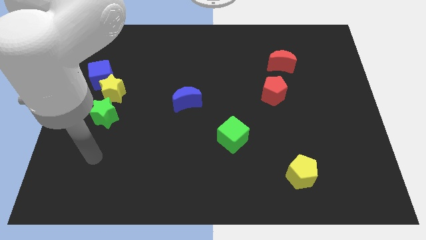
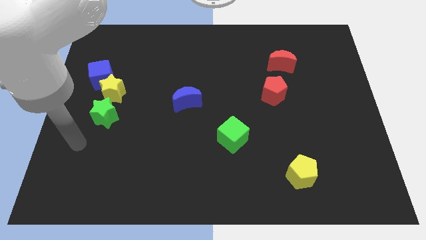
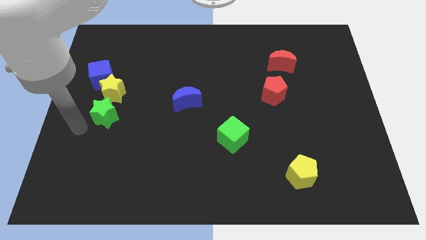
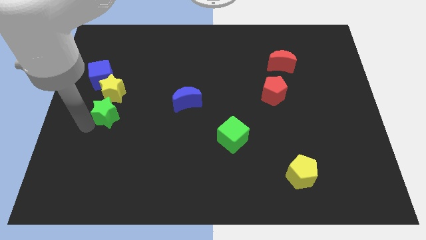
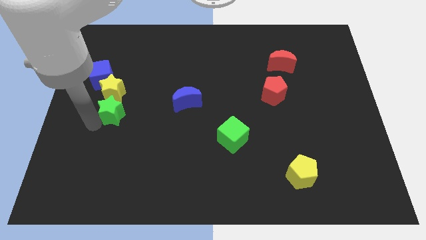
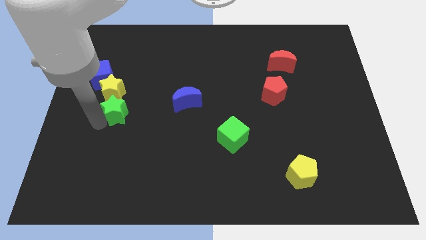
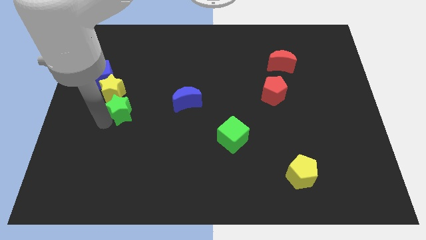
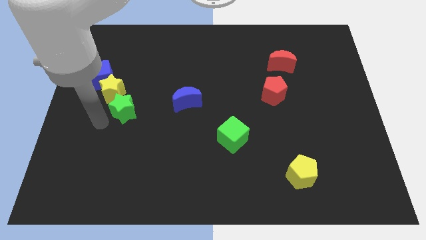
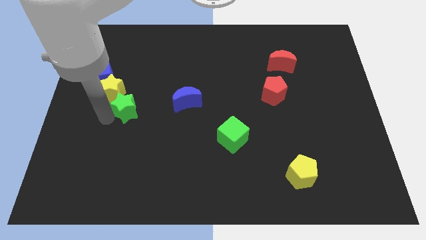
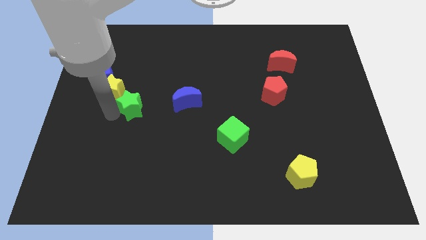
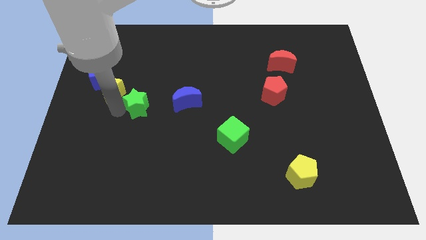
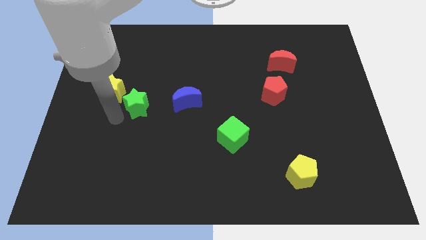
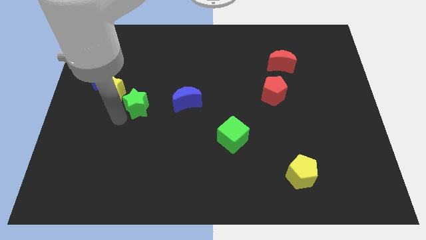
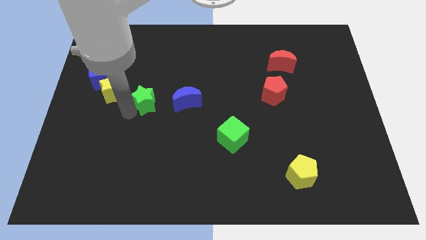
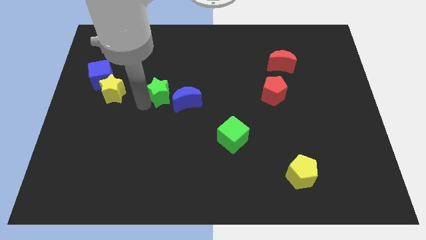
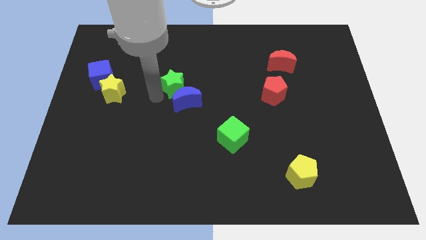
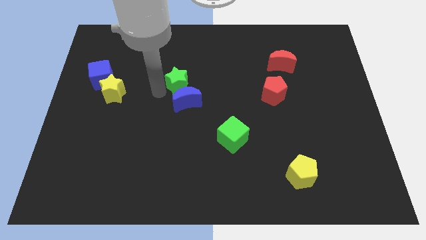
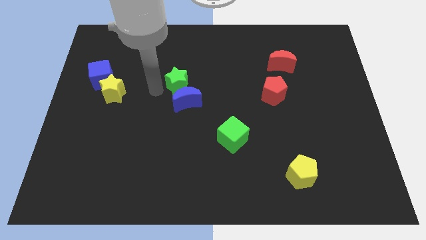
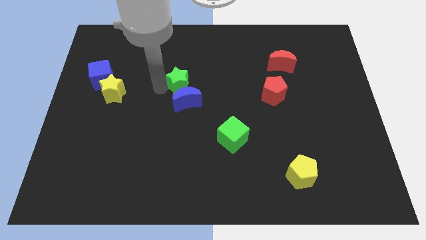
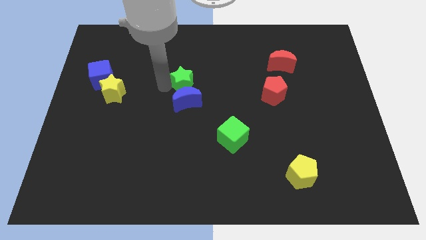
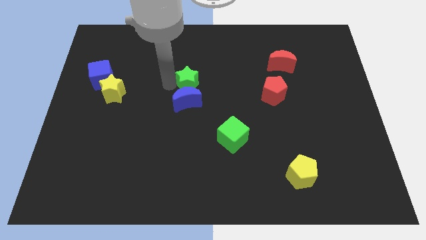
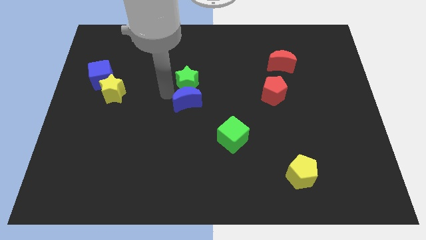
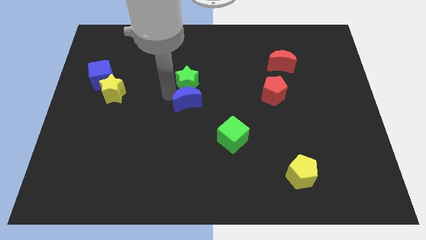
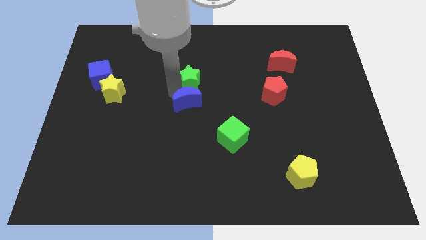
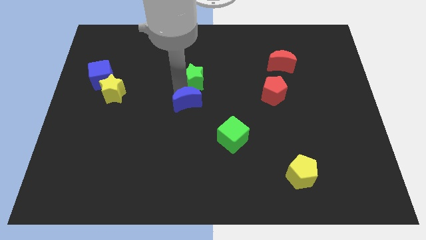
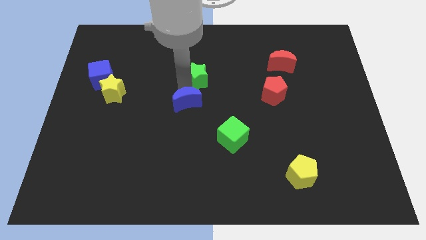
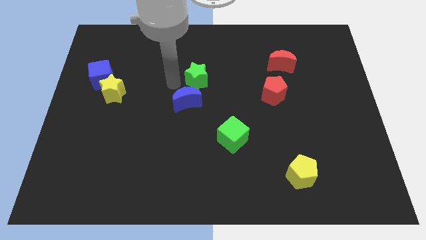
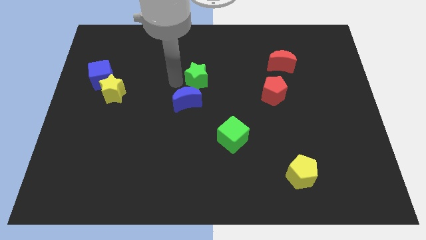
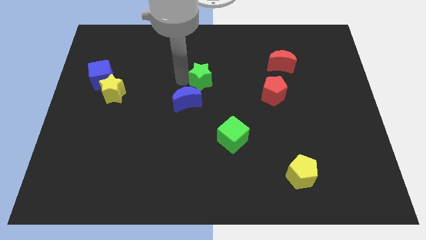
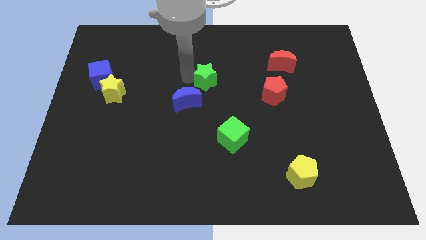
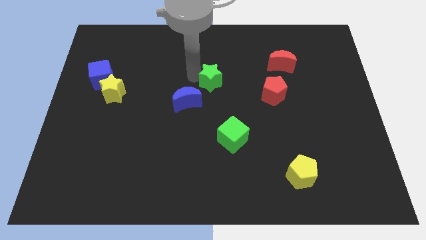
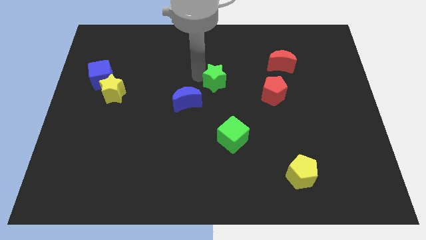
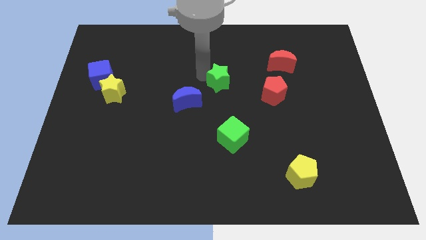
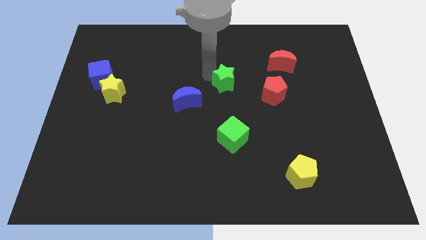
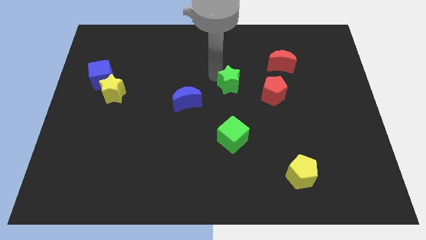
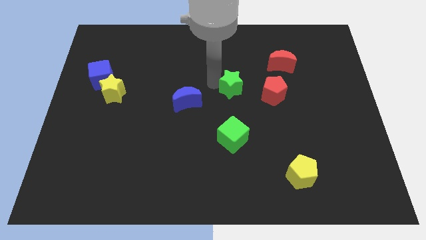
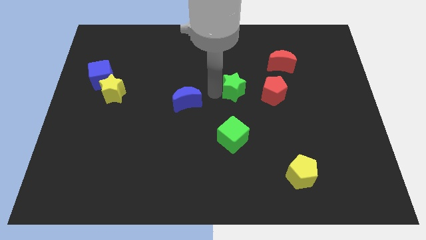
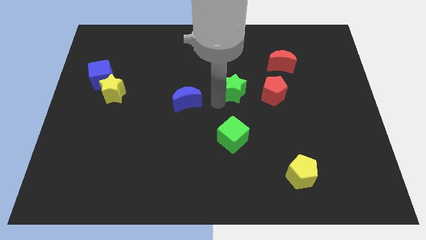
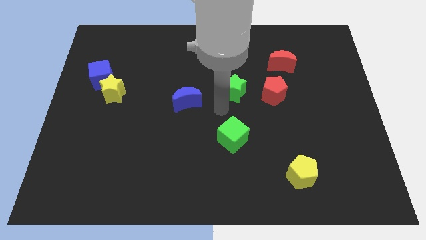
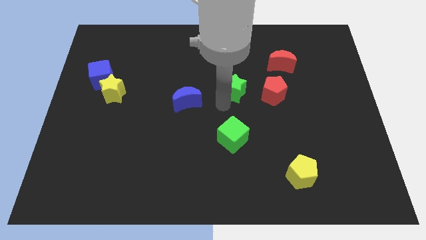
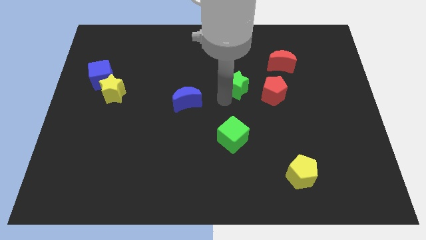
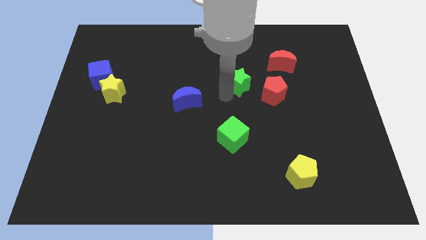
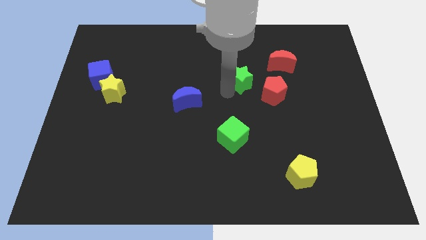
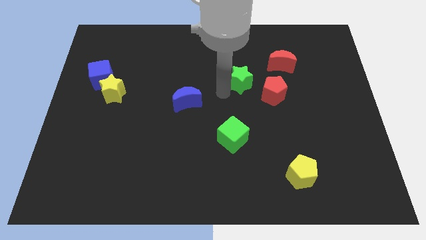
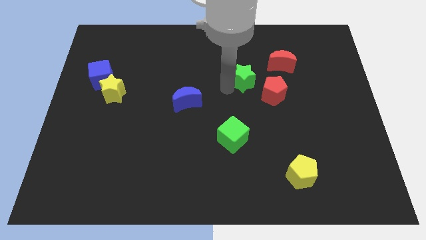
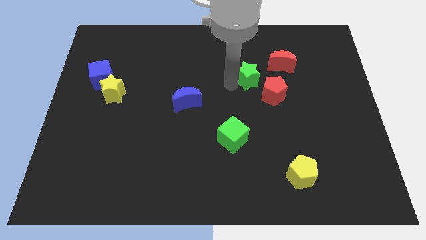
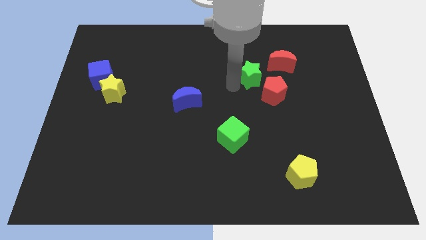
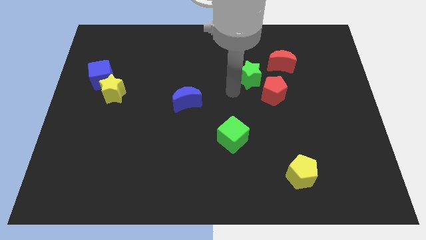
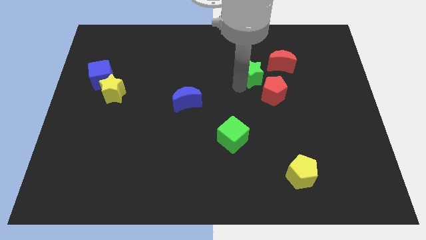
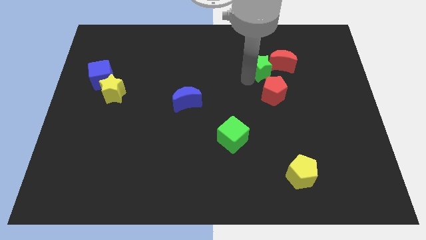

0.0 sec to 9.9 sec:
slide the green star towards the red moon

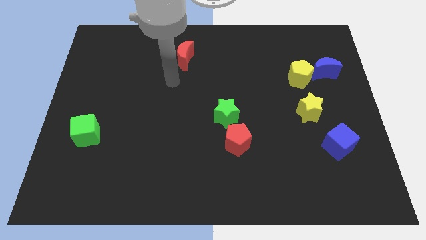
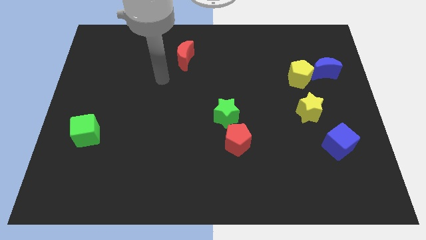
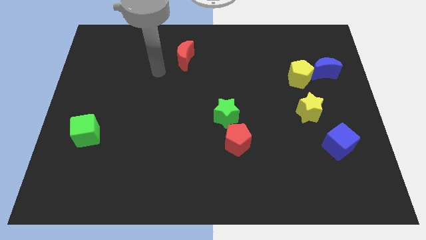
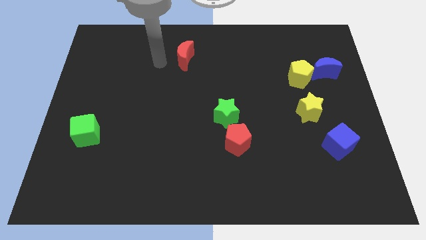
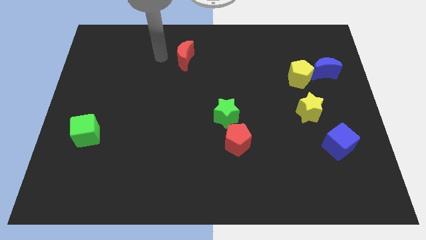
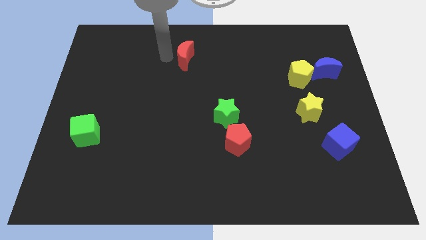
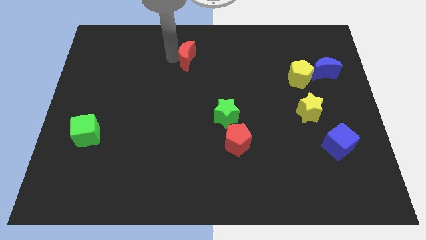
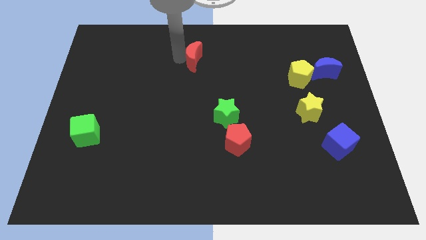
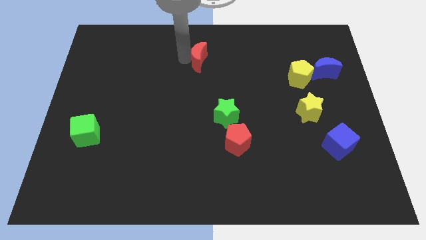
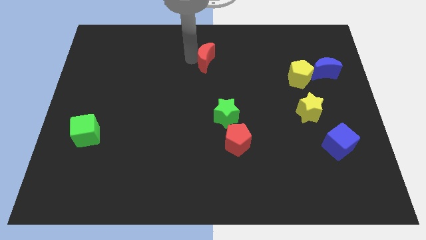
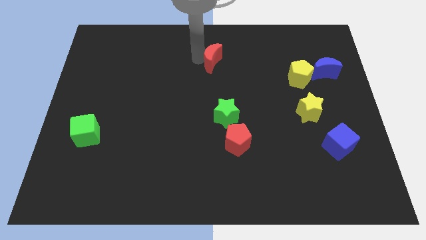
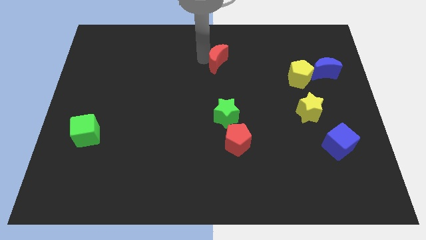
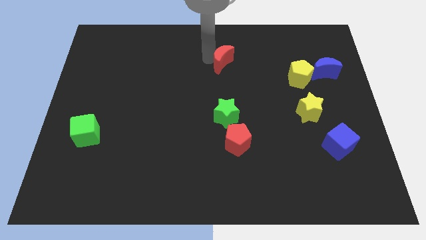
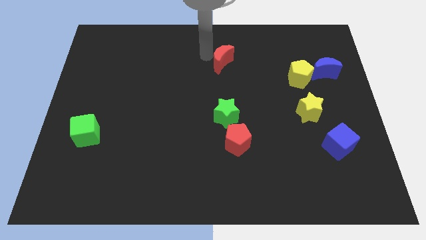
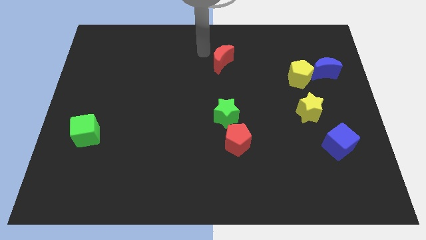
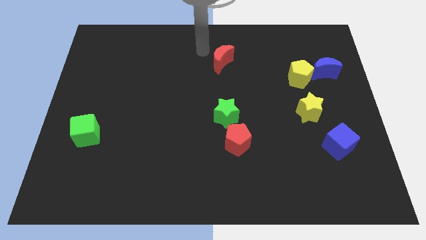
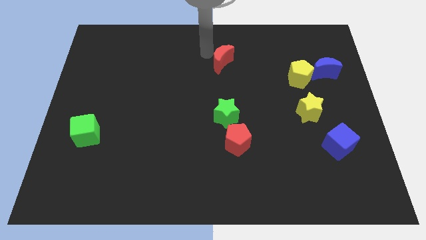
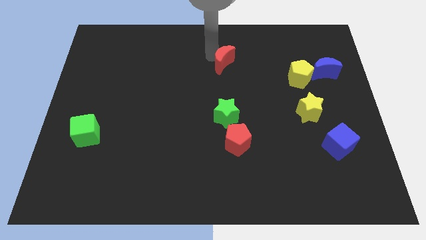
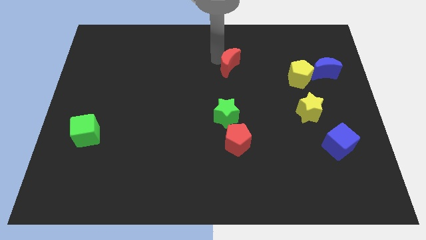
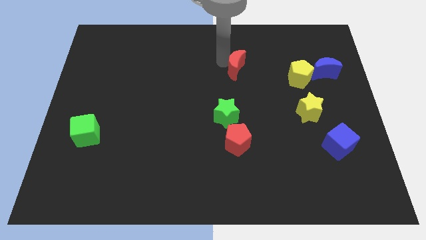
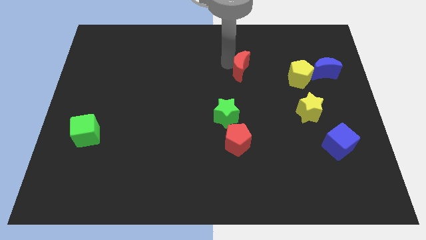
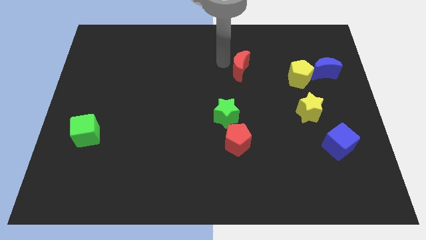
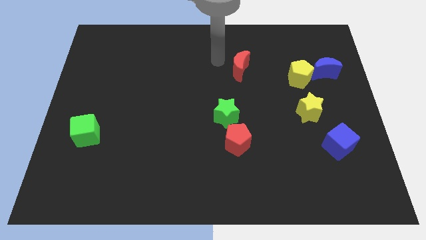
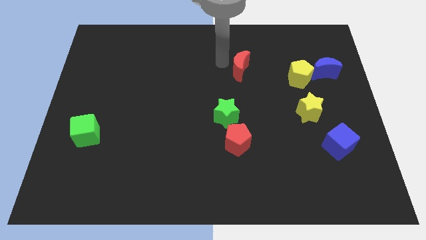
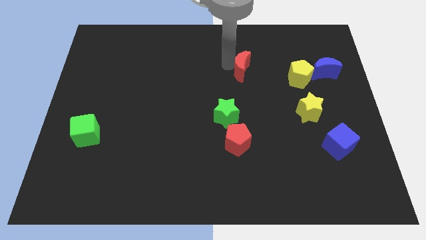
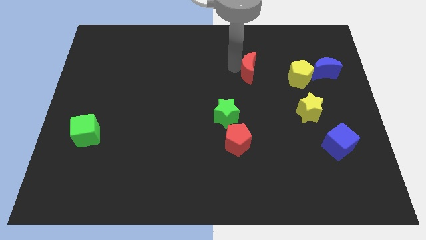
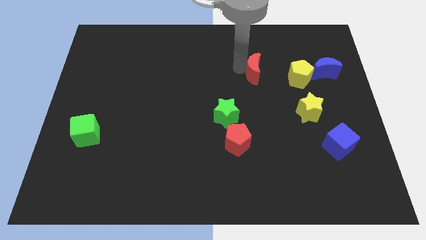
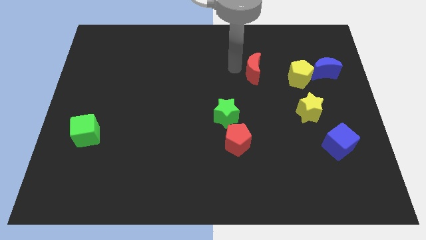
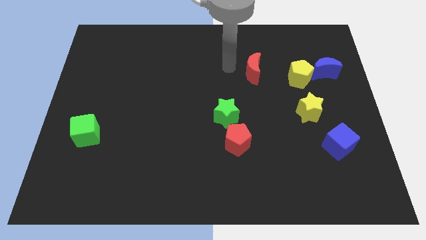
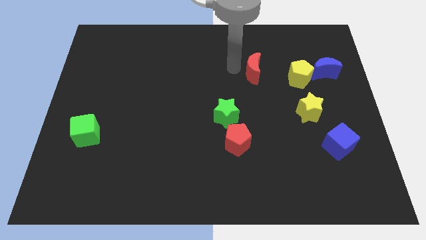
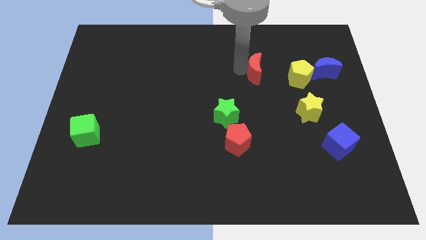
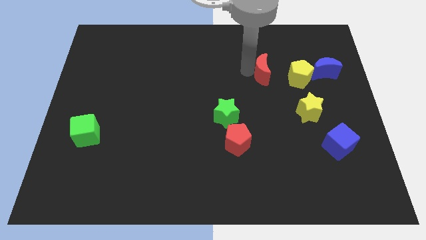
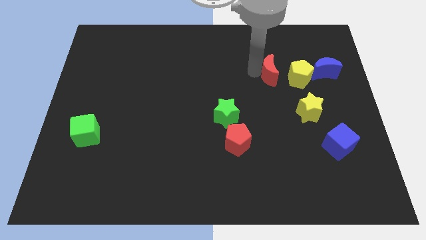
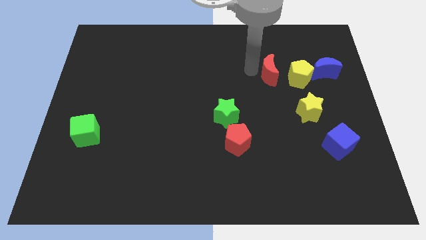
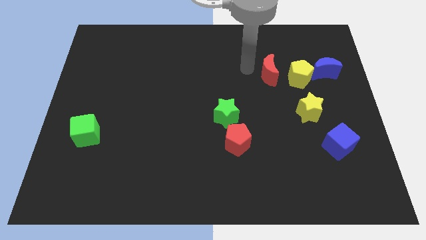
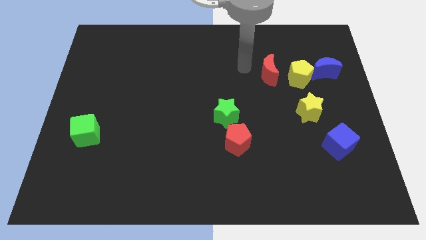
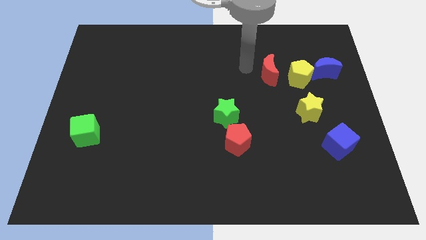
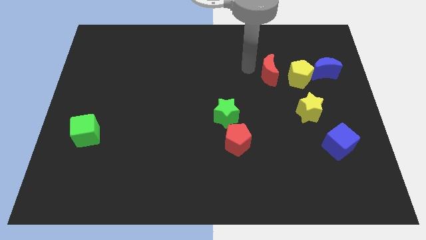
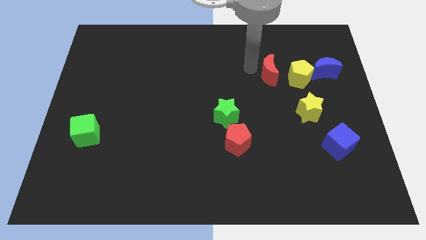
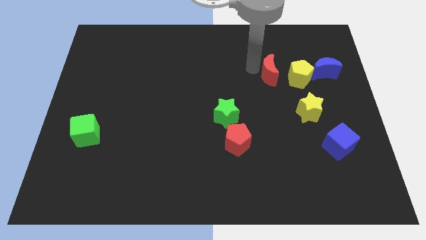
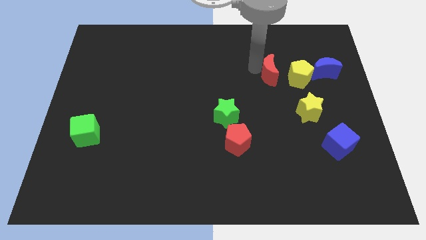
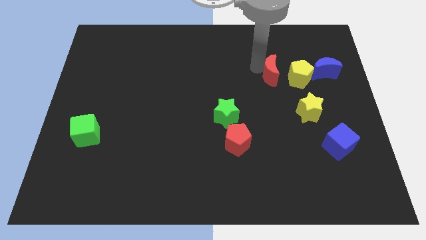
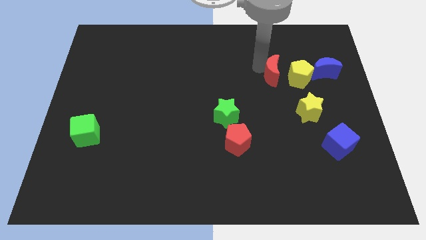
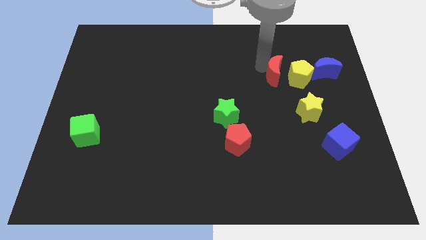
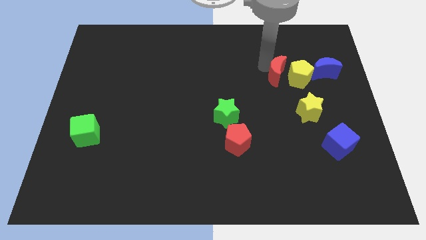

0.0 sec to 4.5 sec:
slide the red moon close to the yellow pentagon
